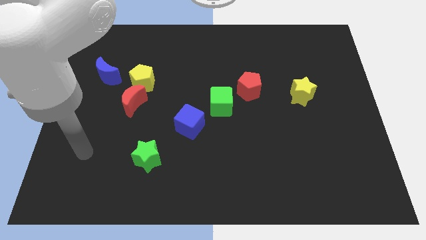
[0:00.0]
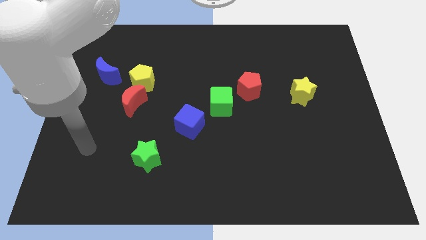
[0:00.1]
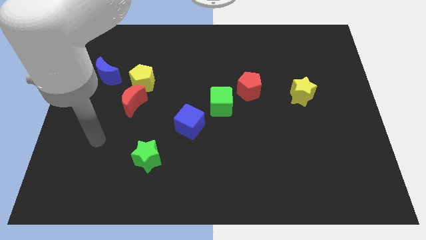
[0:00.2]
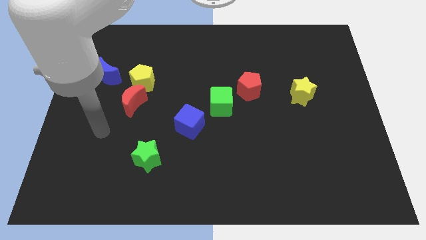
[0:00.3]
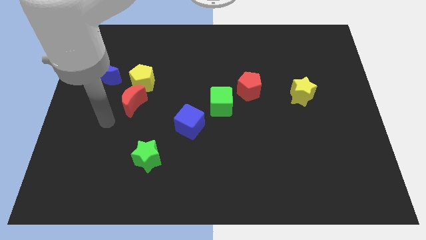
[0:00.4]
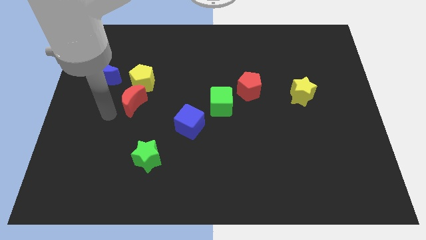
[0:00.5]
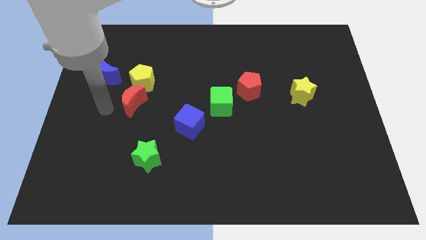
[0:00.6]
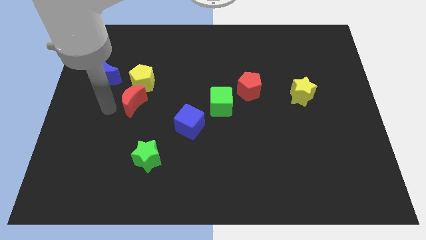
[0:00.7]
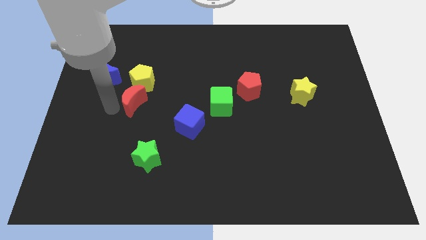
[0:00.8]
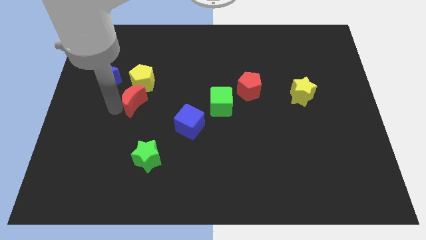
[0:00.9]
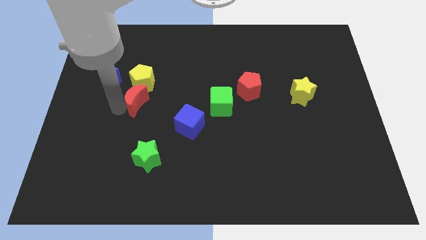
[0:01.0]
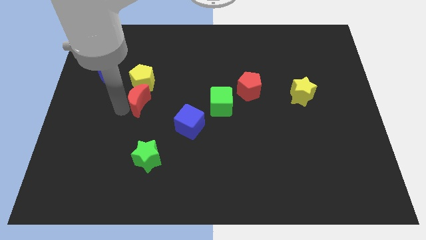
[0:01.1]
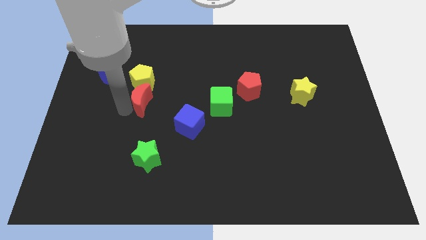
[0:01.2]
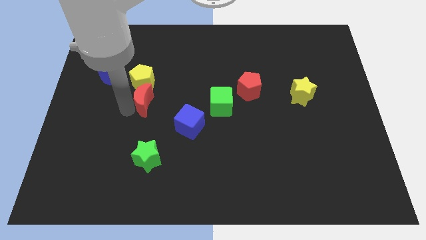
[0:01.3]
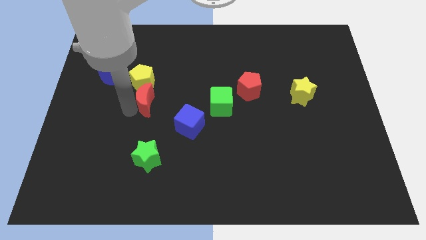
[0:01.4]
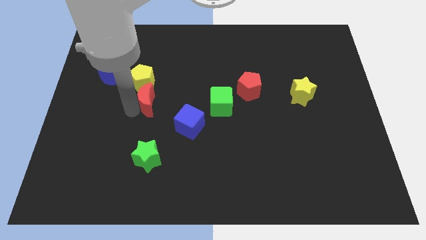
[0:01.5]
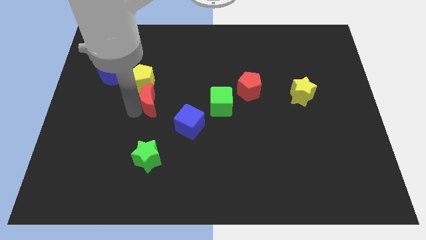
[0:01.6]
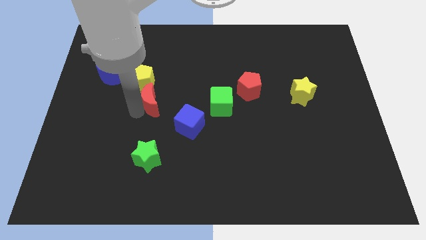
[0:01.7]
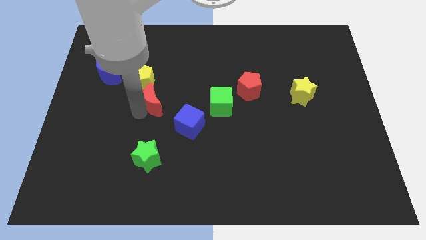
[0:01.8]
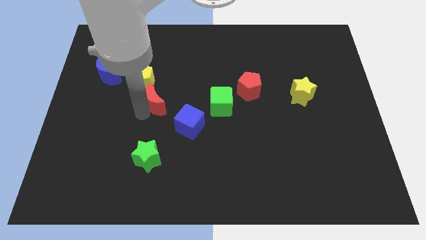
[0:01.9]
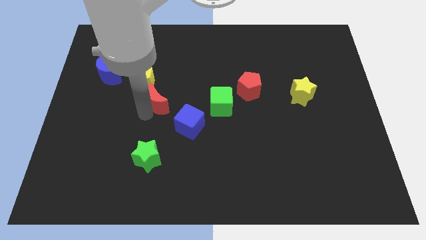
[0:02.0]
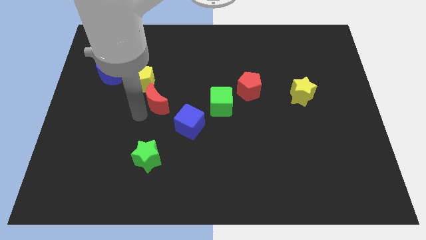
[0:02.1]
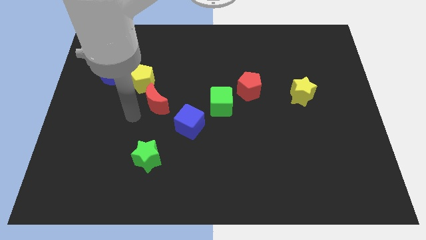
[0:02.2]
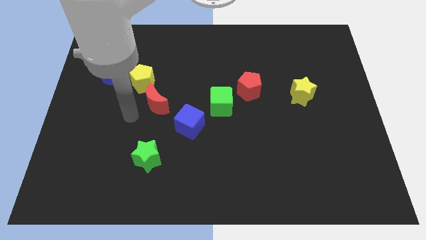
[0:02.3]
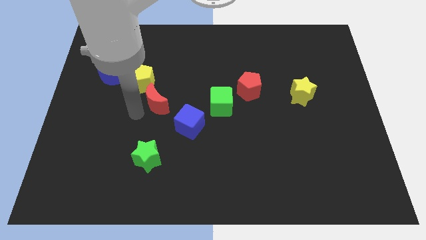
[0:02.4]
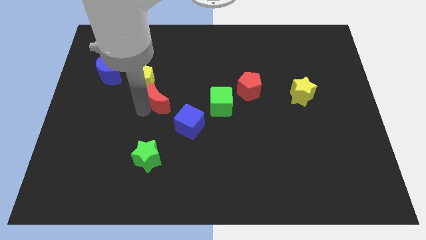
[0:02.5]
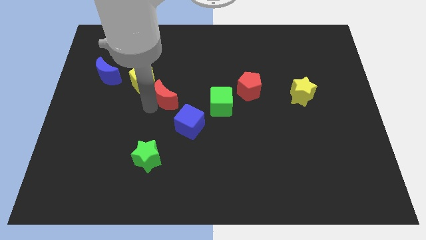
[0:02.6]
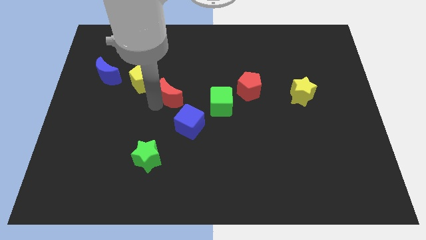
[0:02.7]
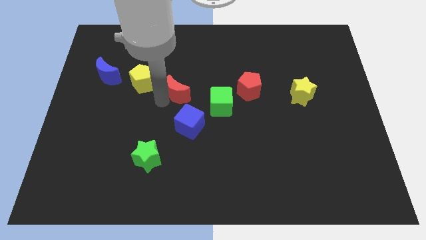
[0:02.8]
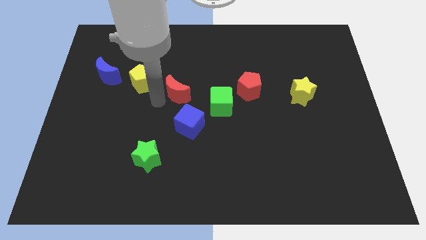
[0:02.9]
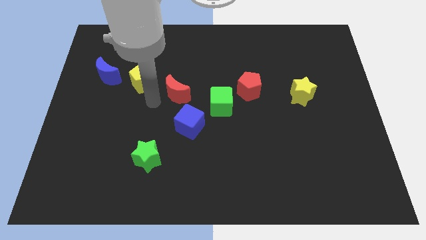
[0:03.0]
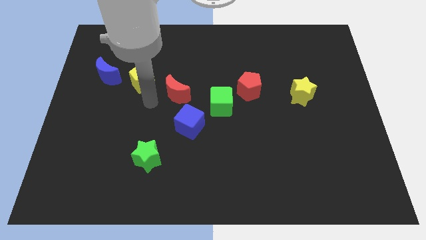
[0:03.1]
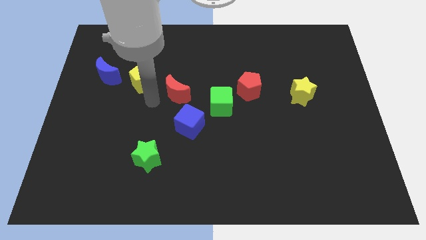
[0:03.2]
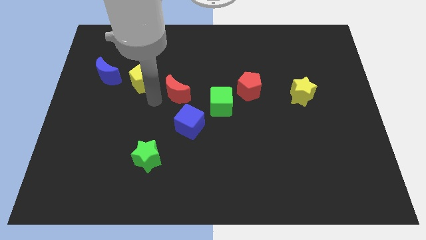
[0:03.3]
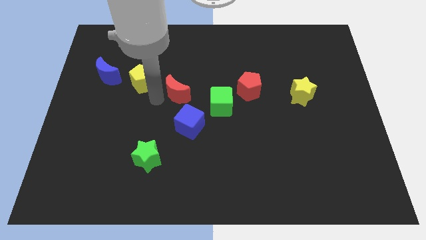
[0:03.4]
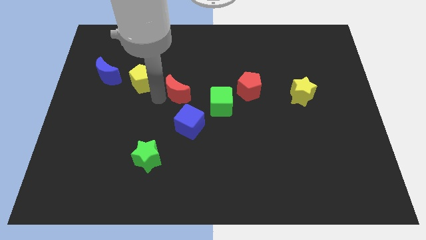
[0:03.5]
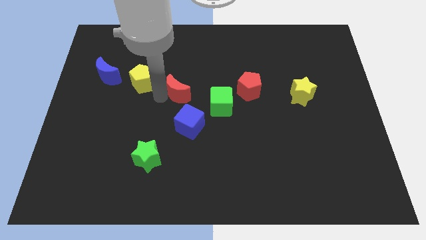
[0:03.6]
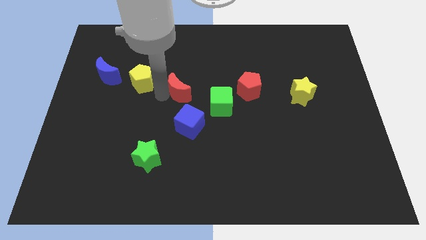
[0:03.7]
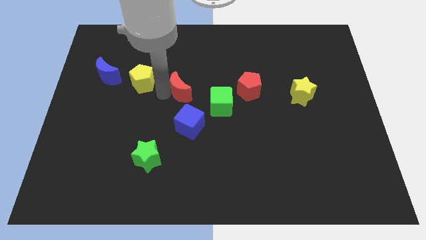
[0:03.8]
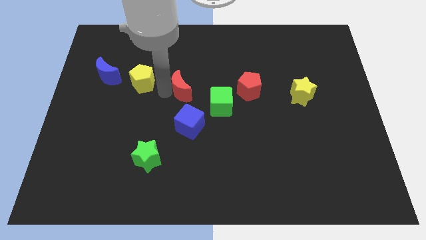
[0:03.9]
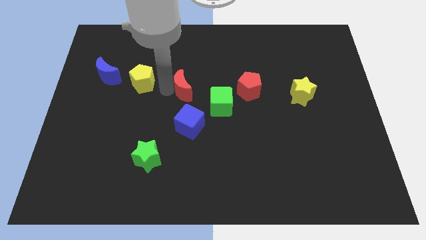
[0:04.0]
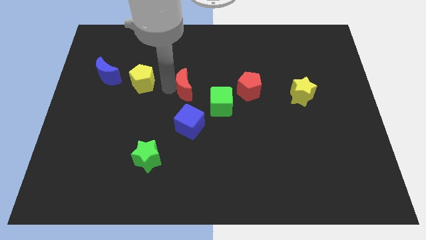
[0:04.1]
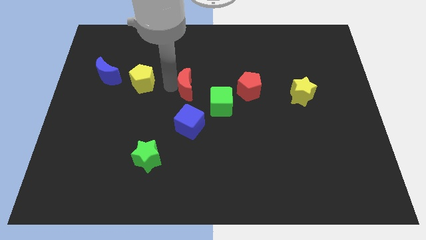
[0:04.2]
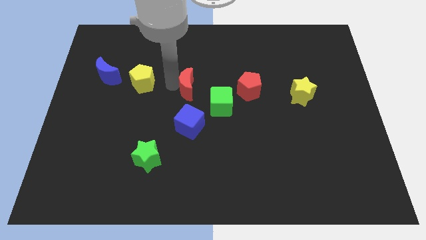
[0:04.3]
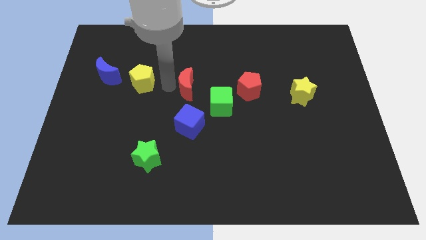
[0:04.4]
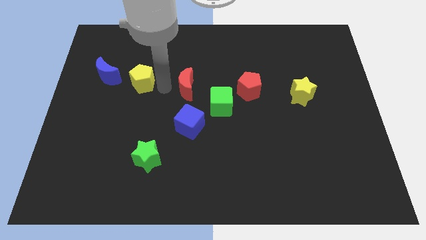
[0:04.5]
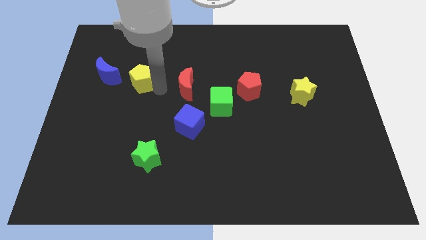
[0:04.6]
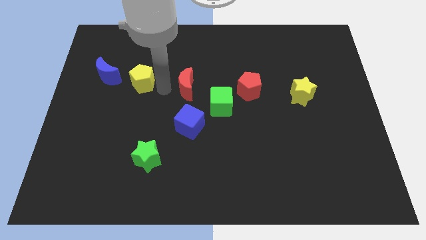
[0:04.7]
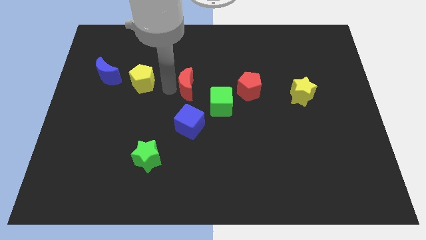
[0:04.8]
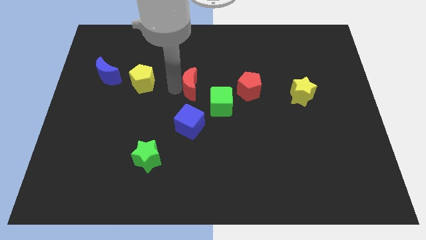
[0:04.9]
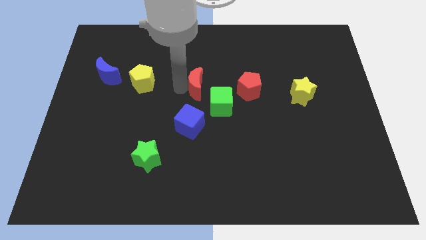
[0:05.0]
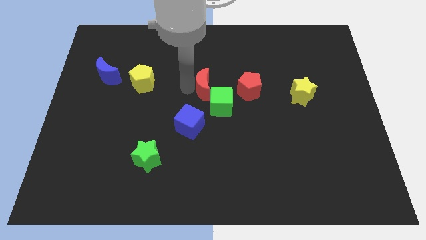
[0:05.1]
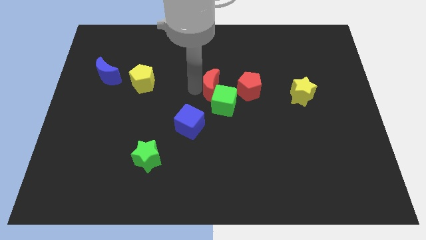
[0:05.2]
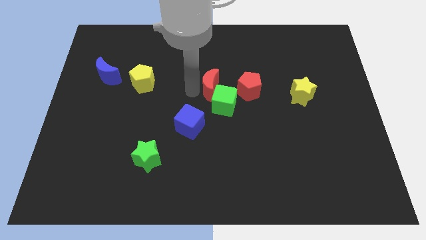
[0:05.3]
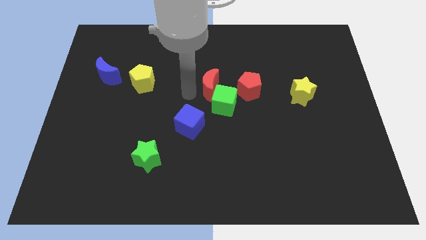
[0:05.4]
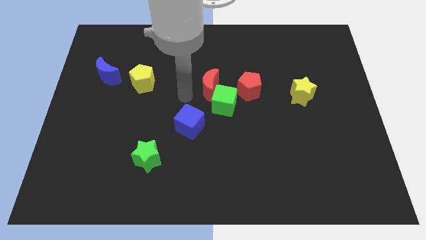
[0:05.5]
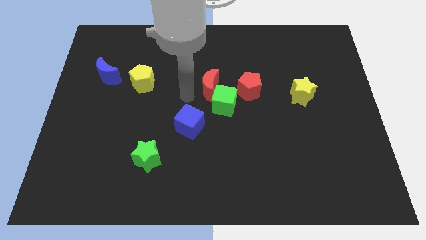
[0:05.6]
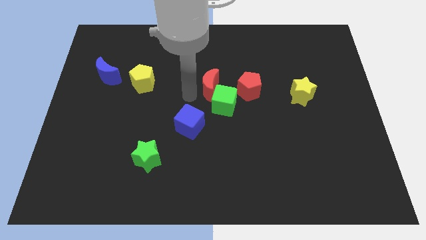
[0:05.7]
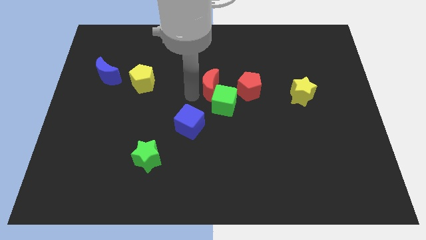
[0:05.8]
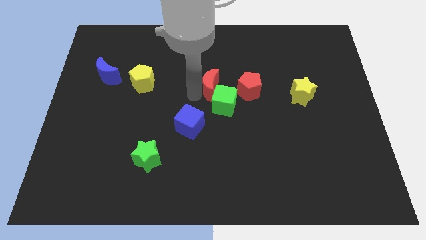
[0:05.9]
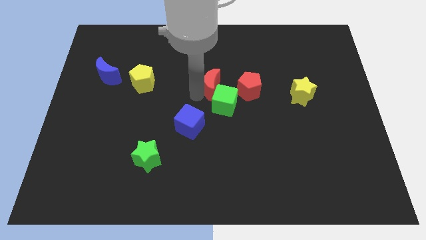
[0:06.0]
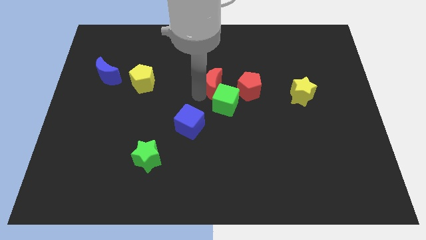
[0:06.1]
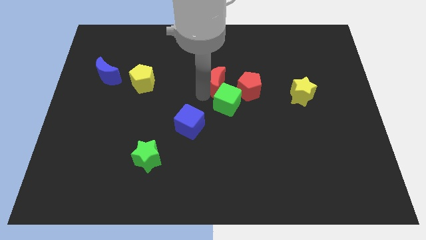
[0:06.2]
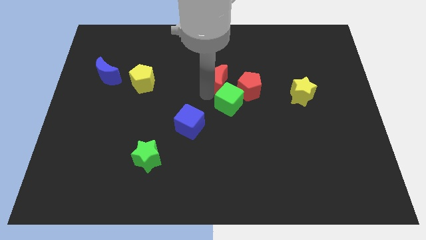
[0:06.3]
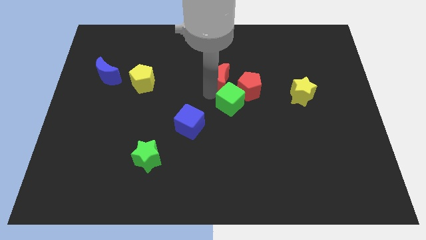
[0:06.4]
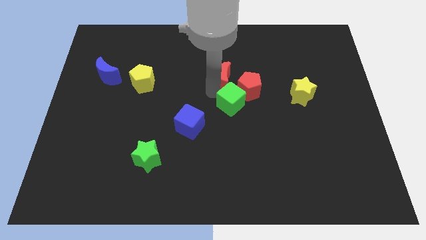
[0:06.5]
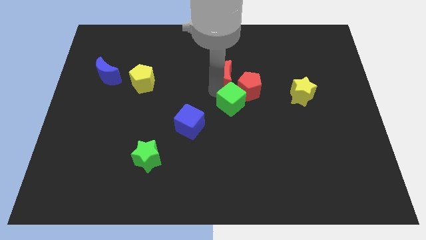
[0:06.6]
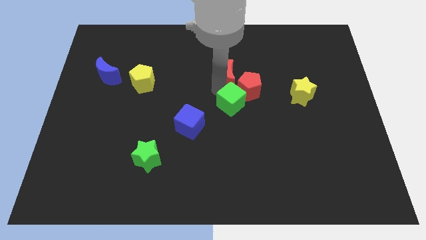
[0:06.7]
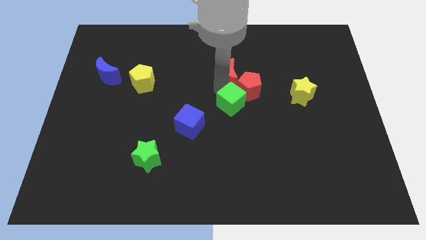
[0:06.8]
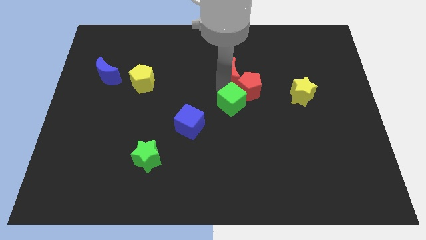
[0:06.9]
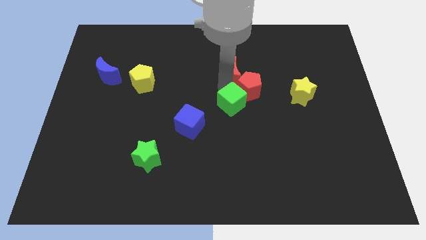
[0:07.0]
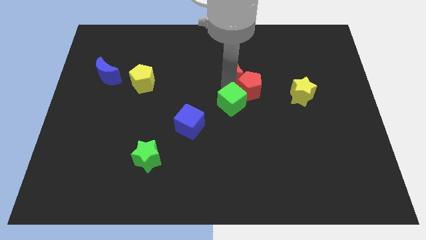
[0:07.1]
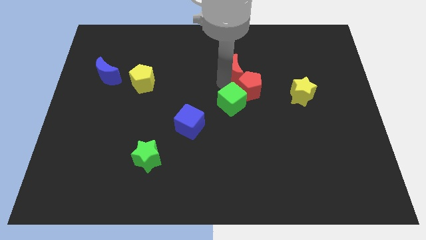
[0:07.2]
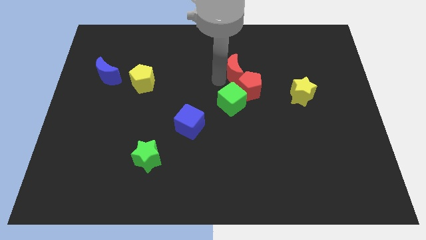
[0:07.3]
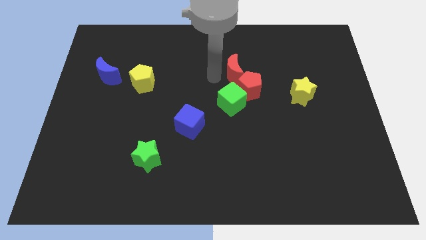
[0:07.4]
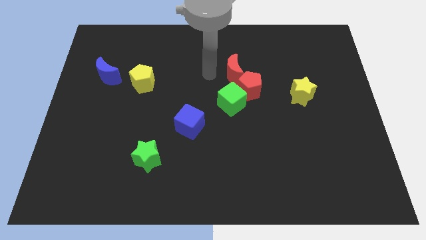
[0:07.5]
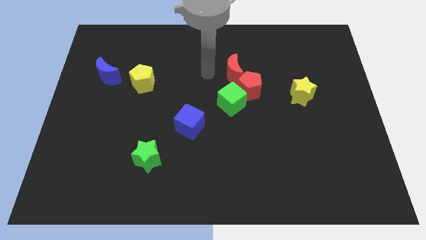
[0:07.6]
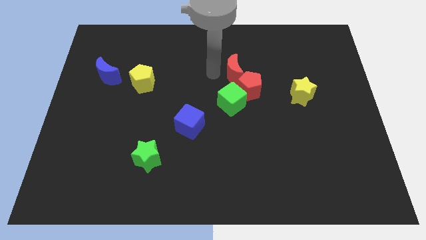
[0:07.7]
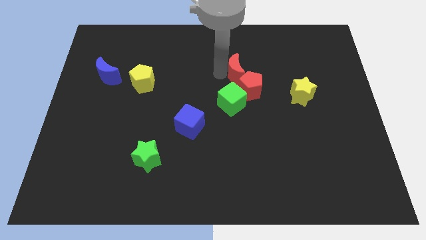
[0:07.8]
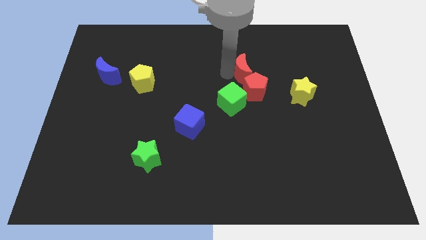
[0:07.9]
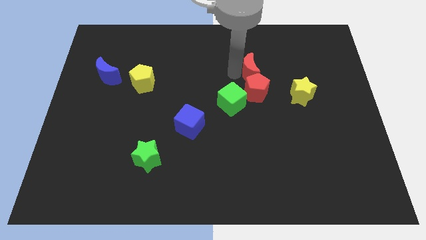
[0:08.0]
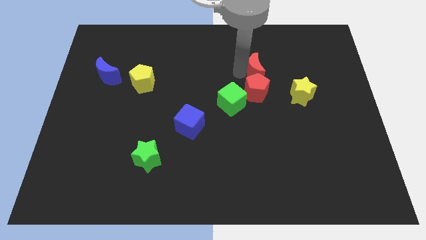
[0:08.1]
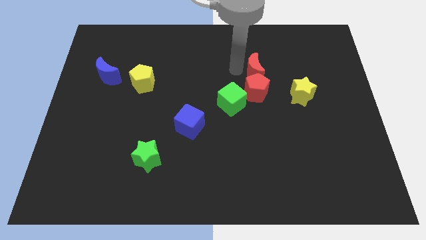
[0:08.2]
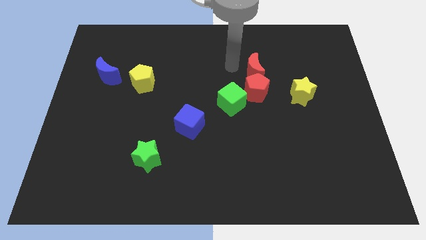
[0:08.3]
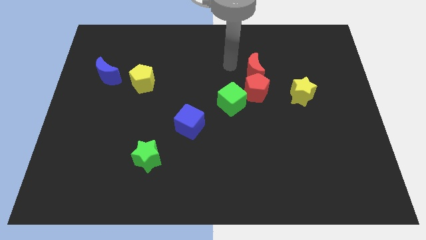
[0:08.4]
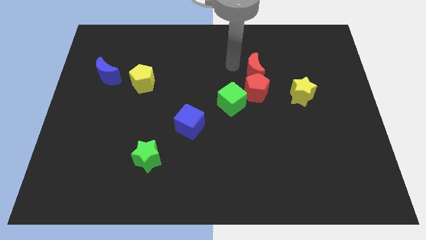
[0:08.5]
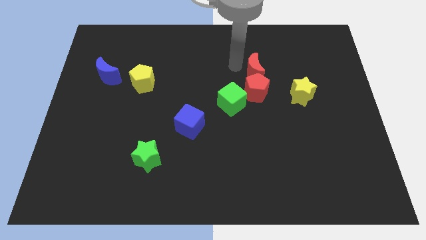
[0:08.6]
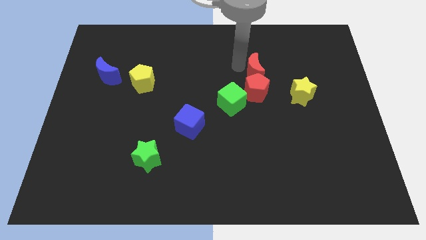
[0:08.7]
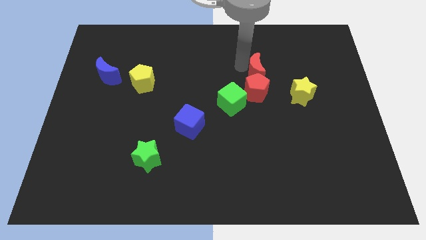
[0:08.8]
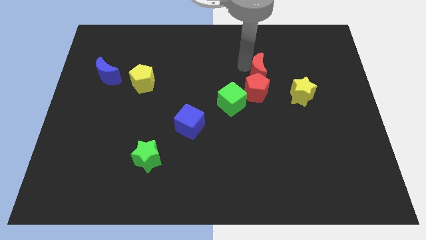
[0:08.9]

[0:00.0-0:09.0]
move the red moon to the top left side of the yellow star
